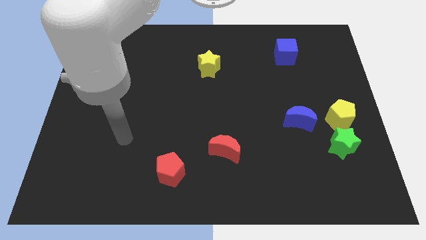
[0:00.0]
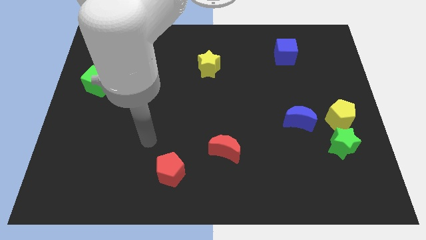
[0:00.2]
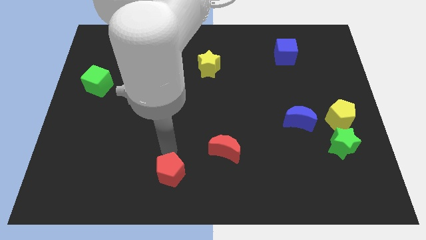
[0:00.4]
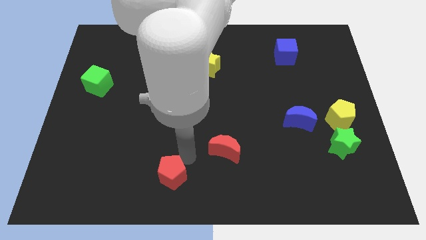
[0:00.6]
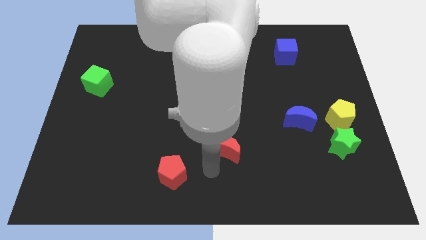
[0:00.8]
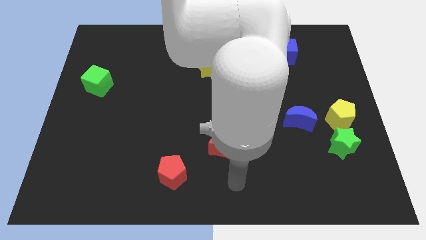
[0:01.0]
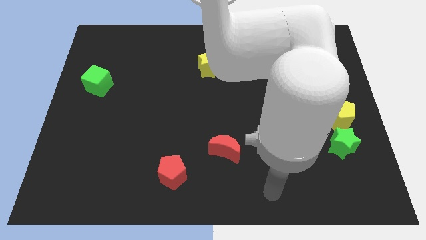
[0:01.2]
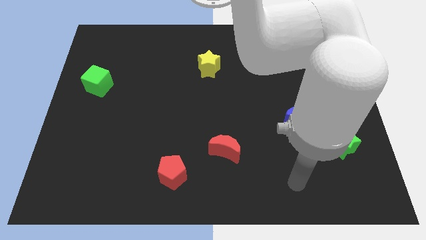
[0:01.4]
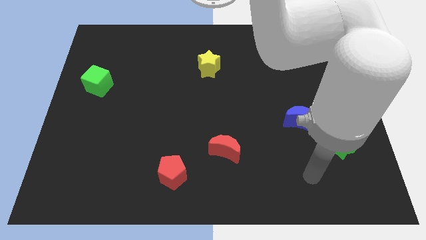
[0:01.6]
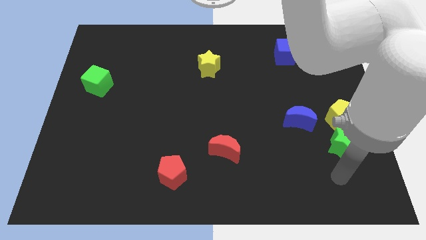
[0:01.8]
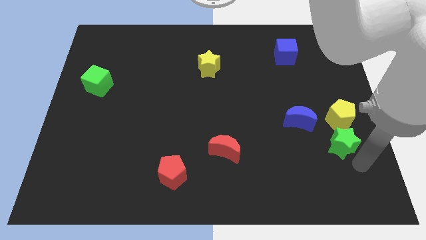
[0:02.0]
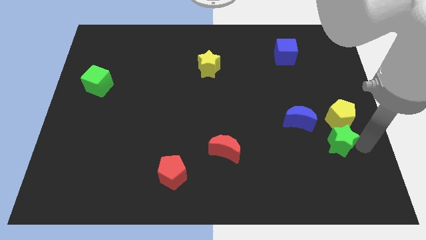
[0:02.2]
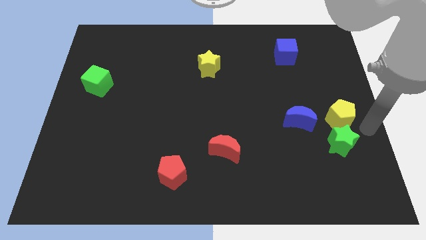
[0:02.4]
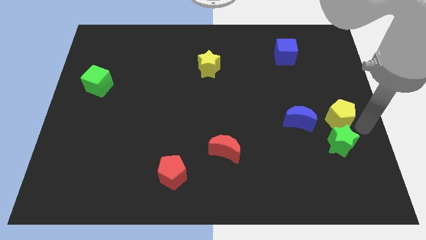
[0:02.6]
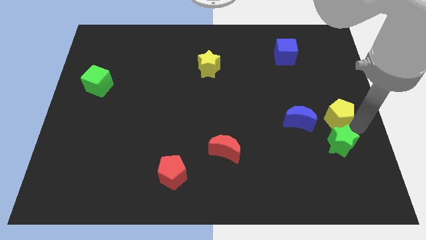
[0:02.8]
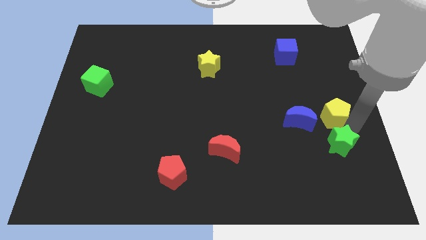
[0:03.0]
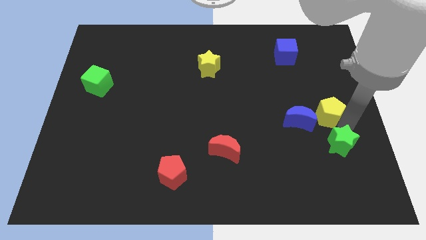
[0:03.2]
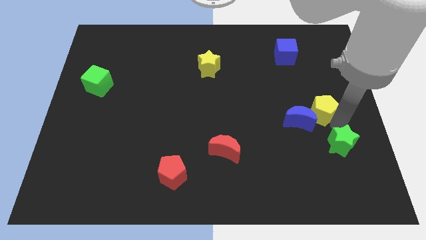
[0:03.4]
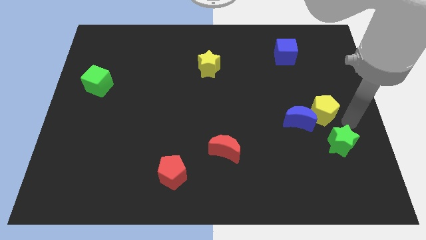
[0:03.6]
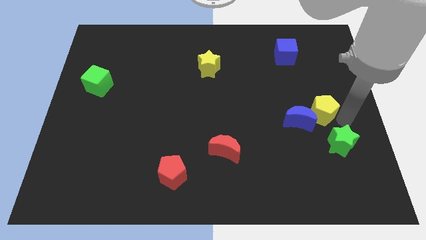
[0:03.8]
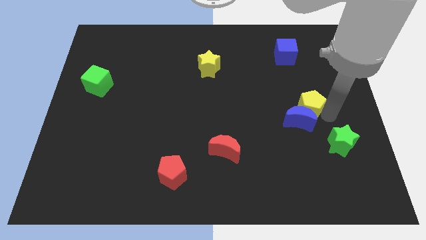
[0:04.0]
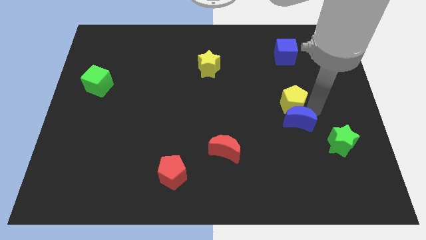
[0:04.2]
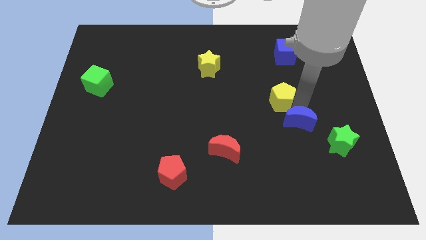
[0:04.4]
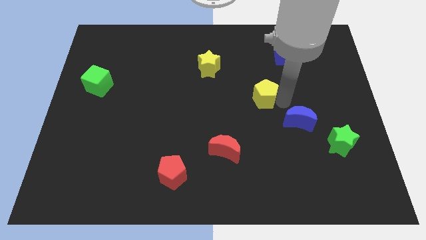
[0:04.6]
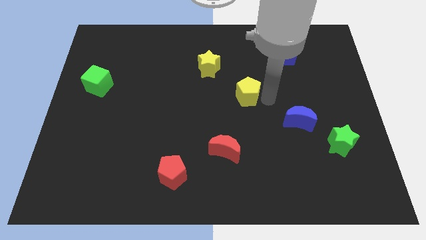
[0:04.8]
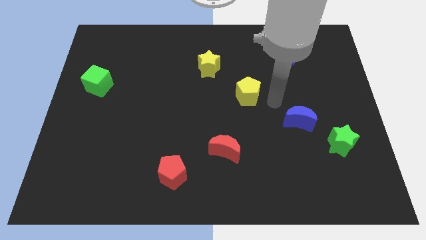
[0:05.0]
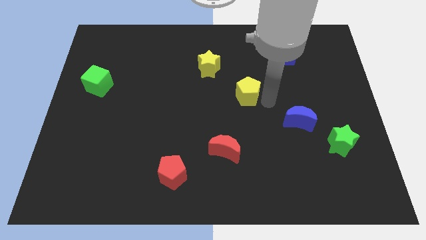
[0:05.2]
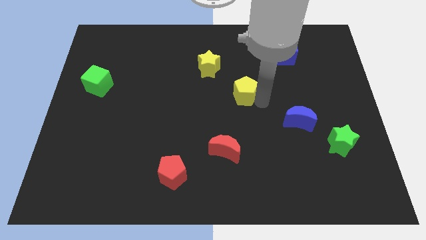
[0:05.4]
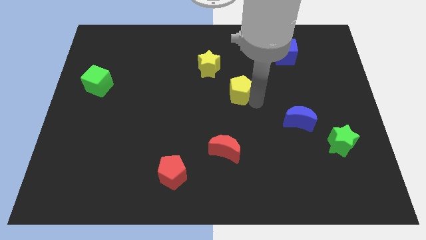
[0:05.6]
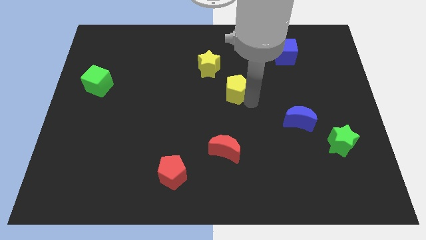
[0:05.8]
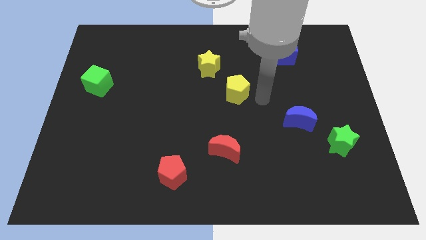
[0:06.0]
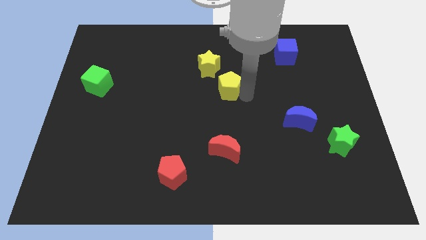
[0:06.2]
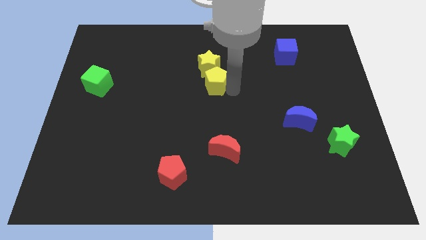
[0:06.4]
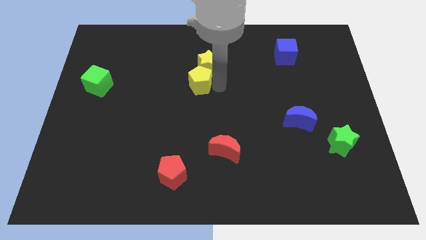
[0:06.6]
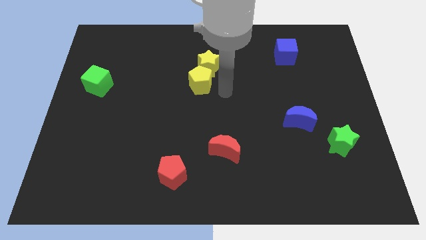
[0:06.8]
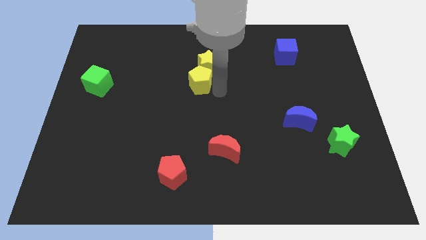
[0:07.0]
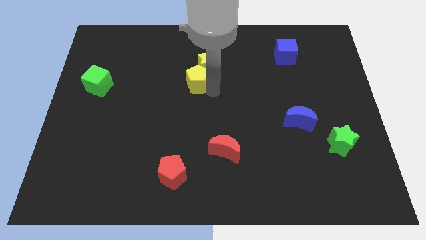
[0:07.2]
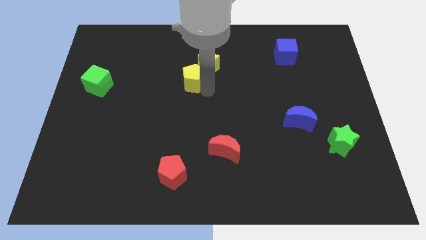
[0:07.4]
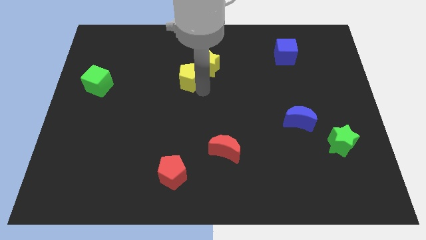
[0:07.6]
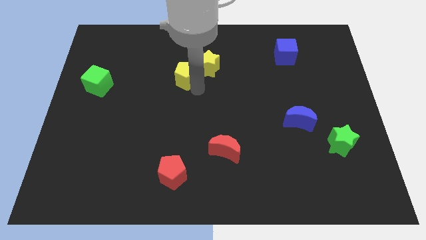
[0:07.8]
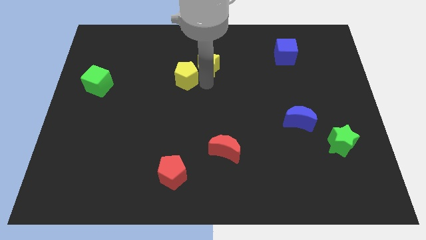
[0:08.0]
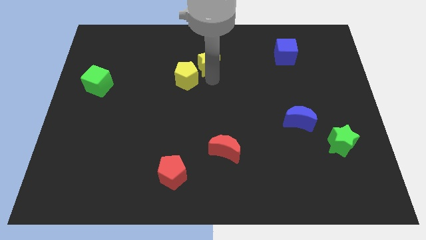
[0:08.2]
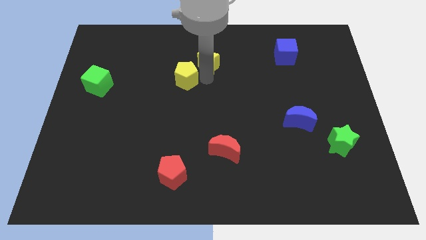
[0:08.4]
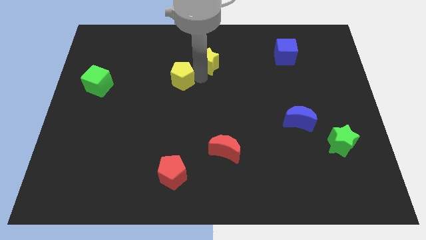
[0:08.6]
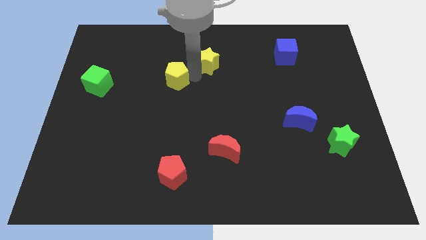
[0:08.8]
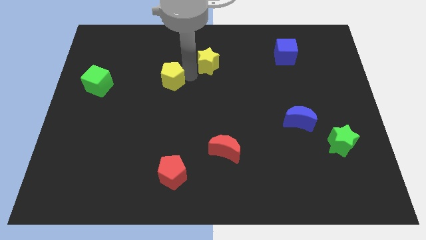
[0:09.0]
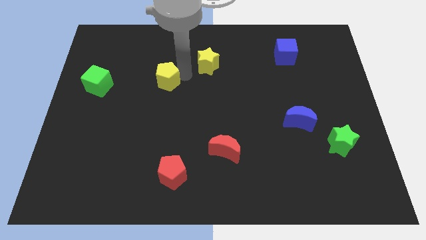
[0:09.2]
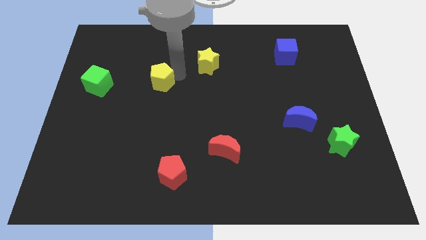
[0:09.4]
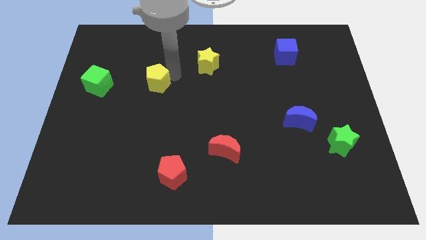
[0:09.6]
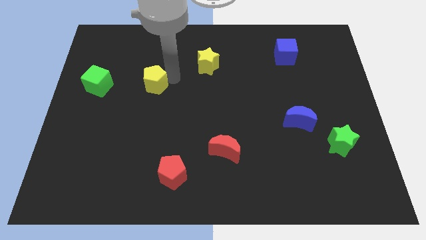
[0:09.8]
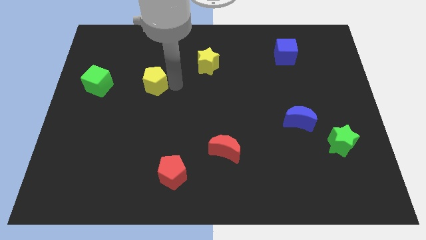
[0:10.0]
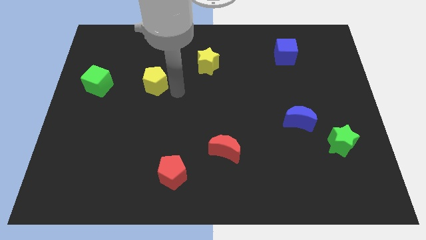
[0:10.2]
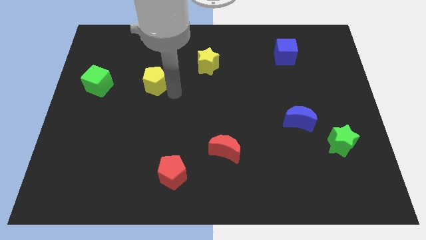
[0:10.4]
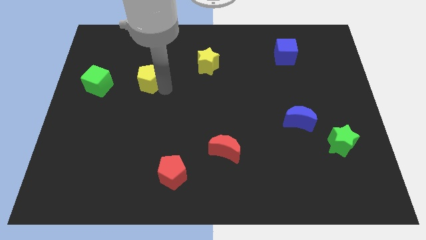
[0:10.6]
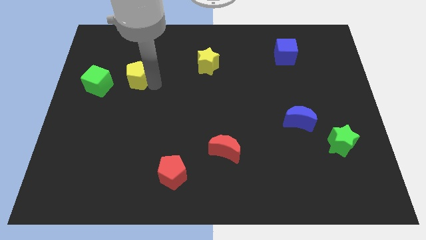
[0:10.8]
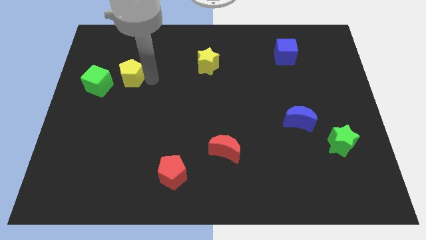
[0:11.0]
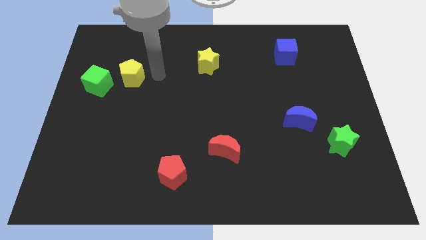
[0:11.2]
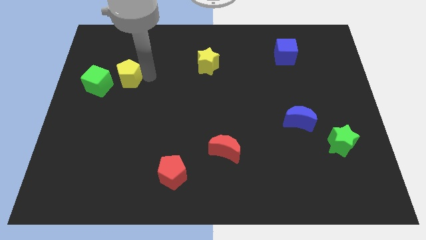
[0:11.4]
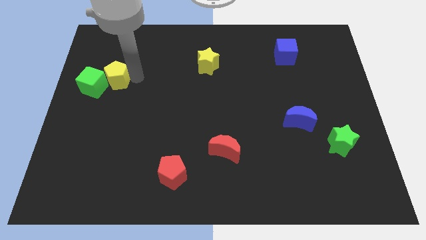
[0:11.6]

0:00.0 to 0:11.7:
slide the yellow pentagon to the green cube

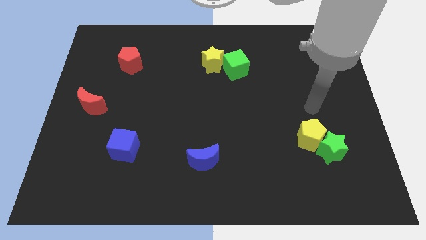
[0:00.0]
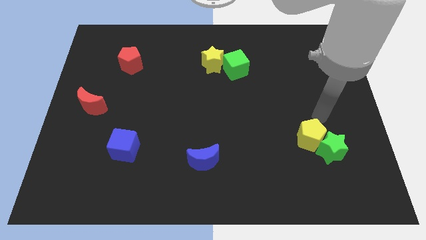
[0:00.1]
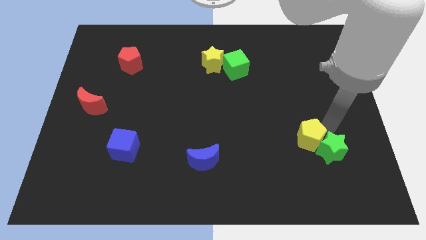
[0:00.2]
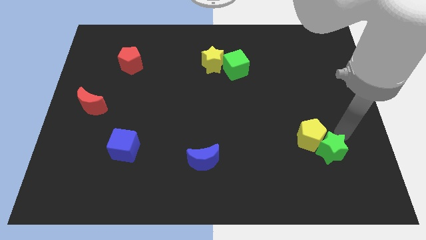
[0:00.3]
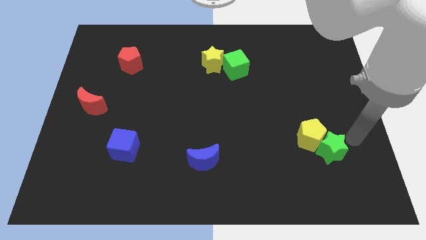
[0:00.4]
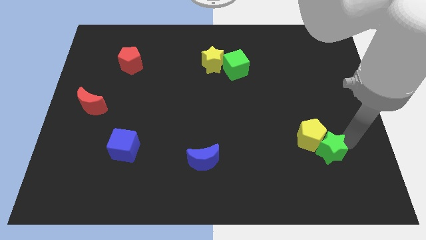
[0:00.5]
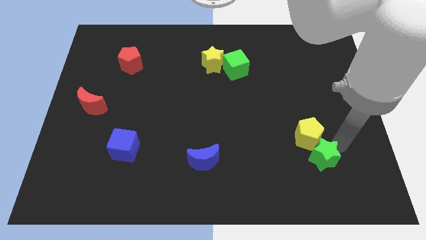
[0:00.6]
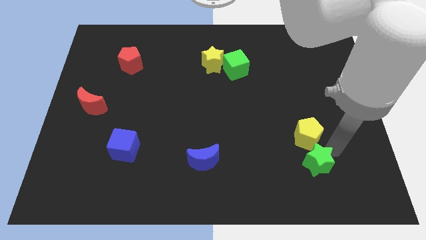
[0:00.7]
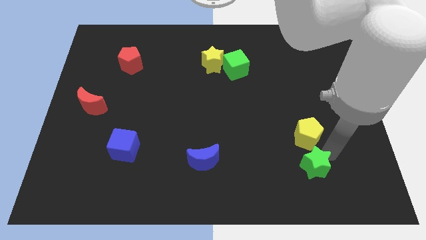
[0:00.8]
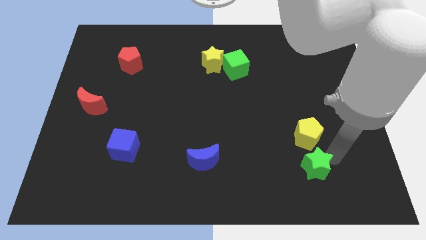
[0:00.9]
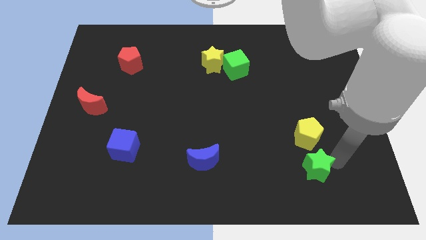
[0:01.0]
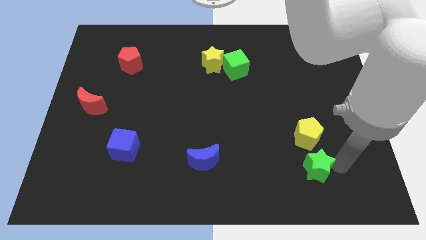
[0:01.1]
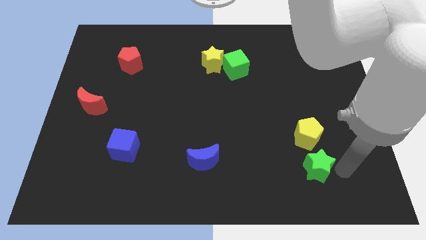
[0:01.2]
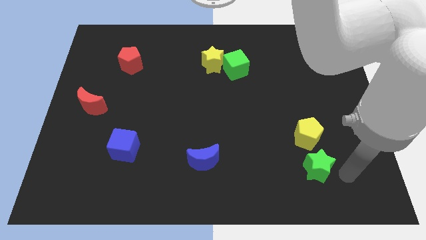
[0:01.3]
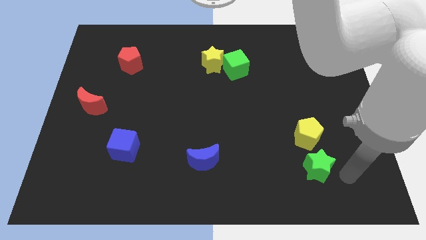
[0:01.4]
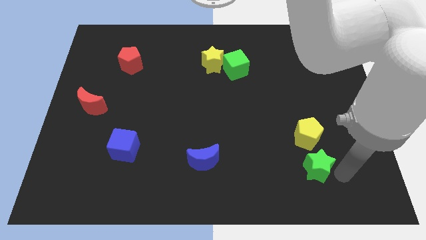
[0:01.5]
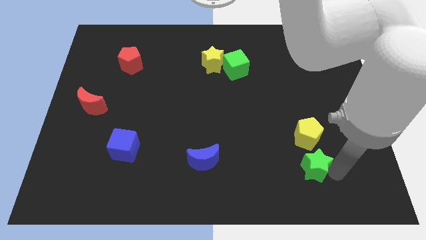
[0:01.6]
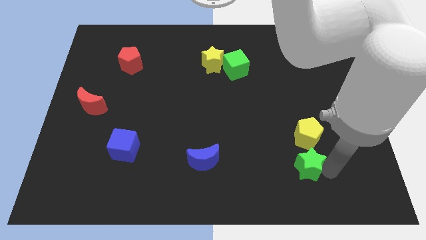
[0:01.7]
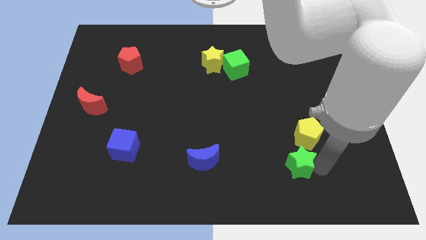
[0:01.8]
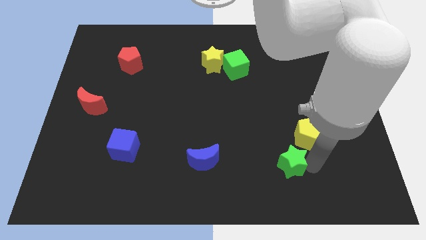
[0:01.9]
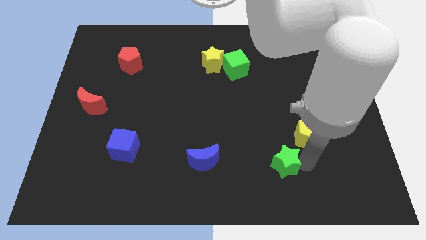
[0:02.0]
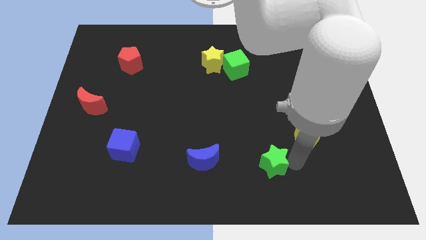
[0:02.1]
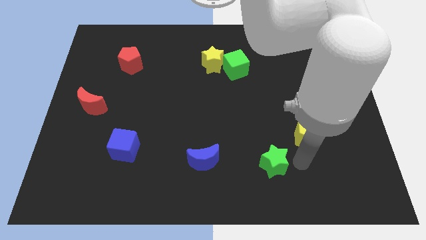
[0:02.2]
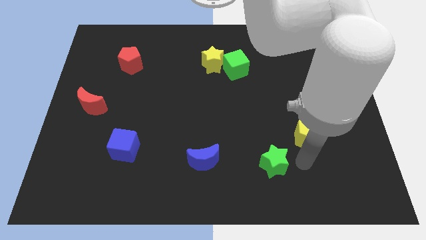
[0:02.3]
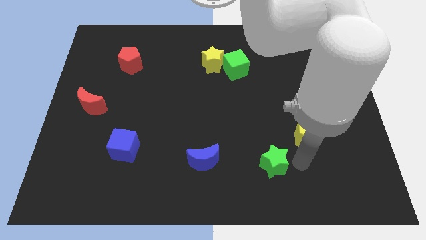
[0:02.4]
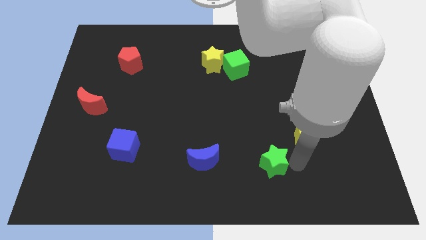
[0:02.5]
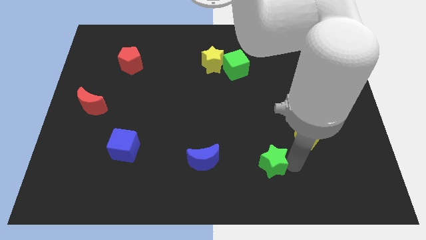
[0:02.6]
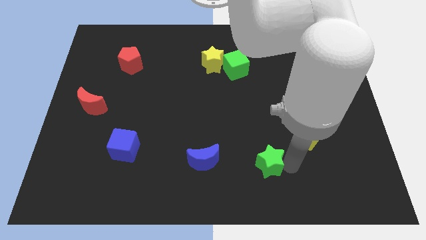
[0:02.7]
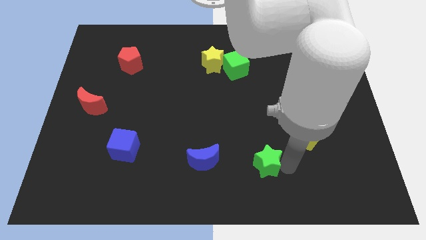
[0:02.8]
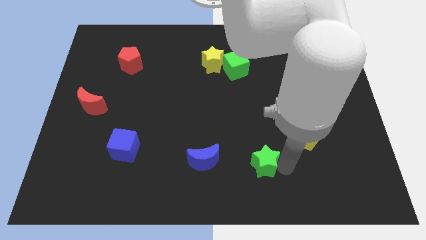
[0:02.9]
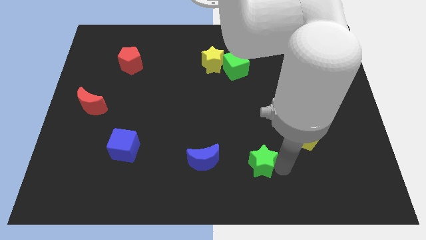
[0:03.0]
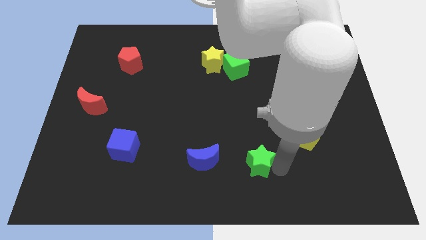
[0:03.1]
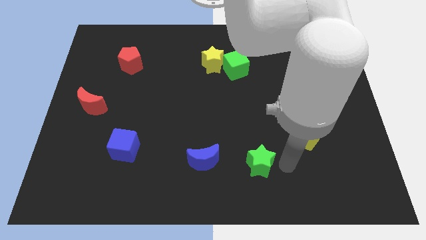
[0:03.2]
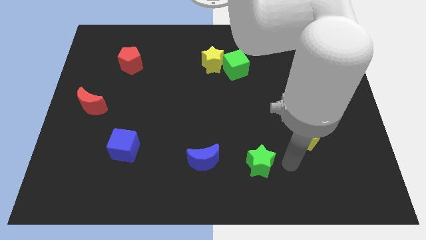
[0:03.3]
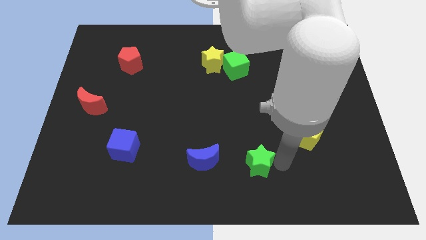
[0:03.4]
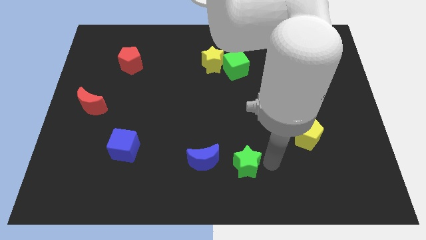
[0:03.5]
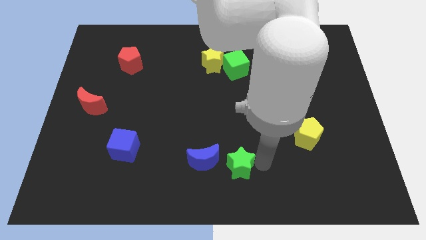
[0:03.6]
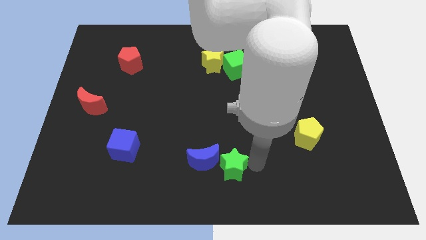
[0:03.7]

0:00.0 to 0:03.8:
slide the green star close to the blue moon
